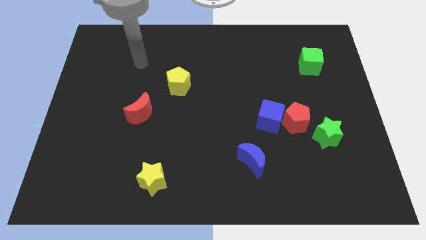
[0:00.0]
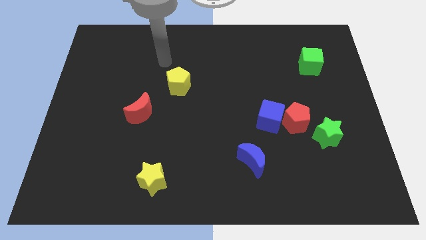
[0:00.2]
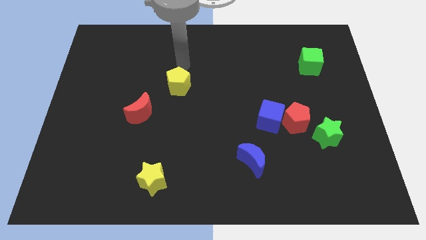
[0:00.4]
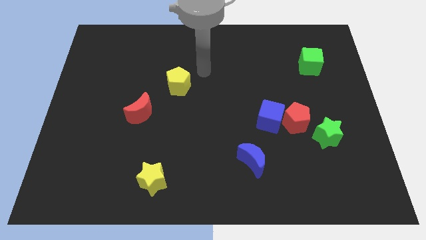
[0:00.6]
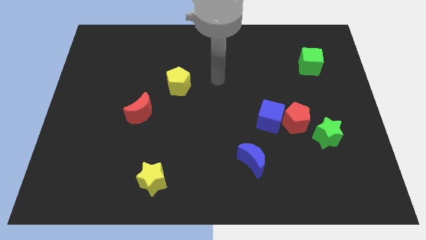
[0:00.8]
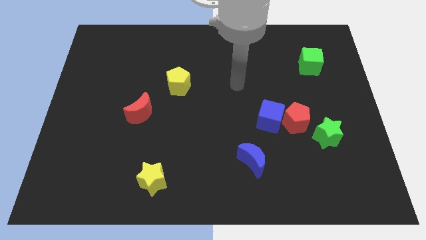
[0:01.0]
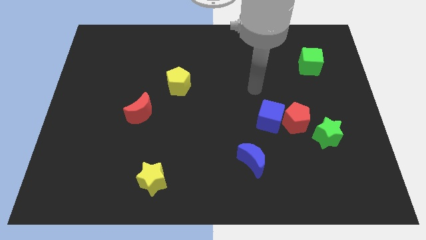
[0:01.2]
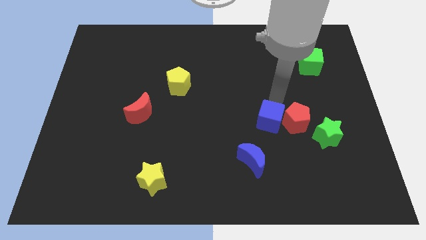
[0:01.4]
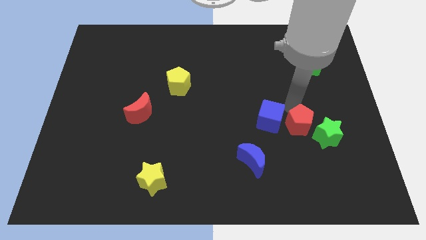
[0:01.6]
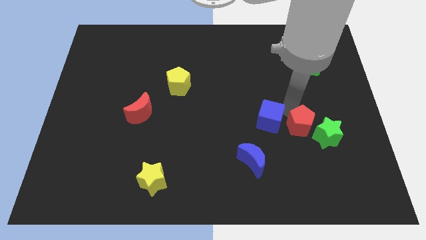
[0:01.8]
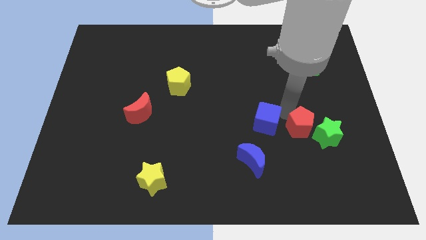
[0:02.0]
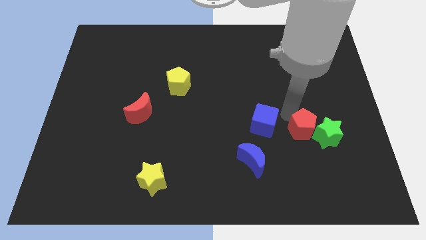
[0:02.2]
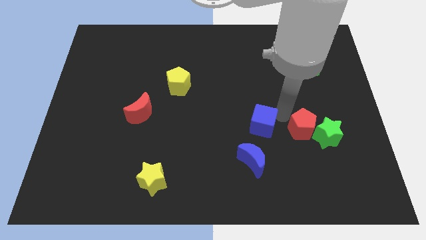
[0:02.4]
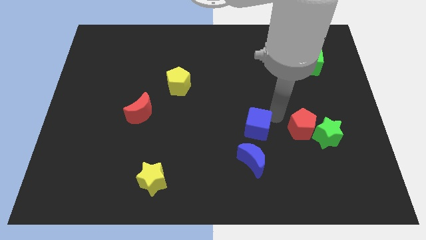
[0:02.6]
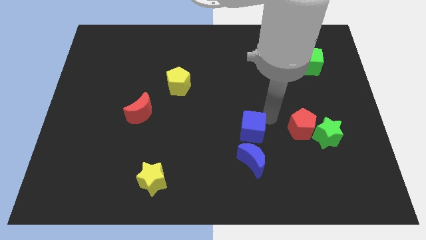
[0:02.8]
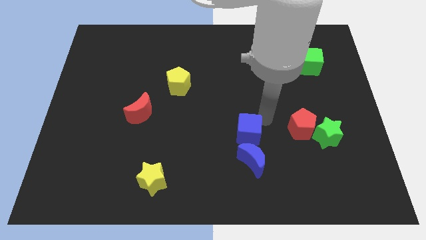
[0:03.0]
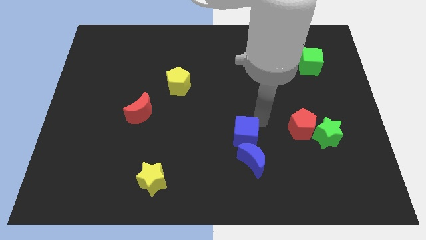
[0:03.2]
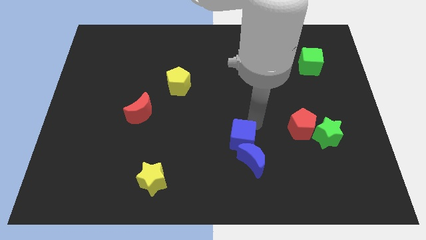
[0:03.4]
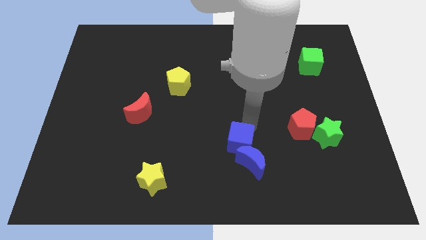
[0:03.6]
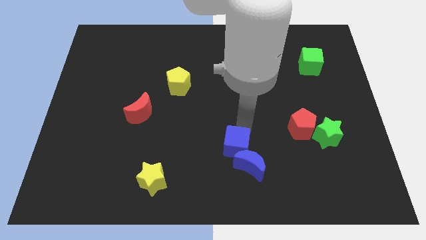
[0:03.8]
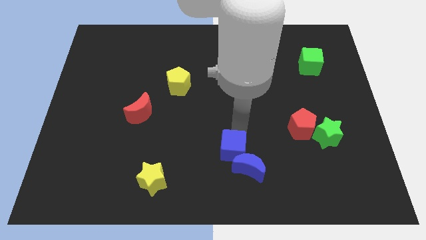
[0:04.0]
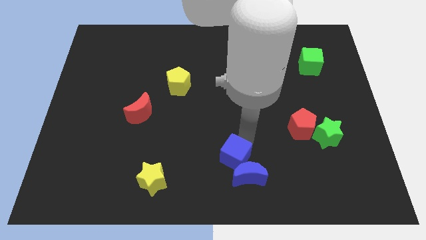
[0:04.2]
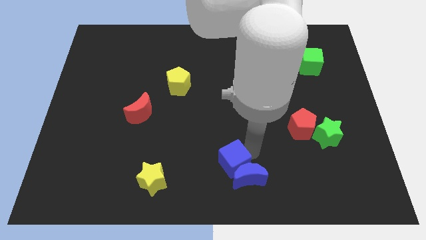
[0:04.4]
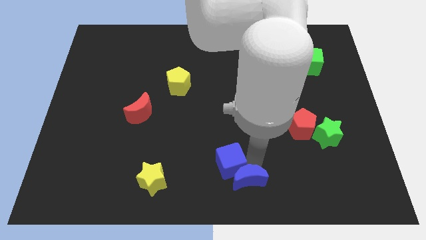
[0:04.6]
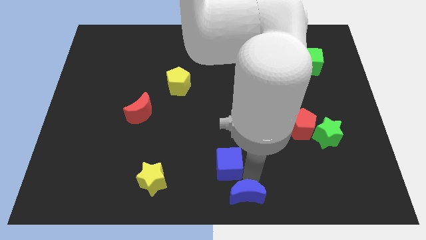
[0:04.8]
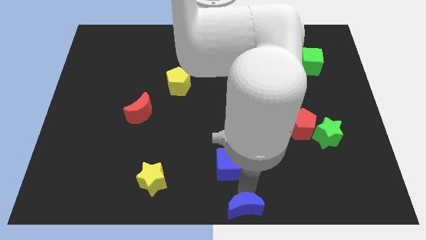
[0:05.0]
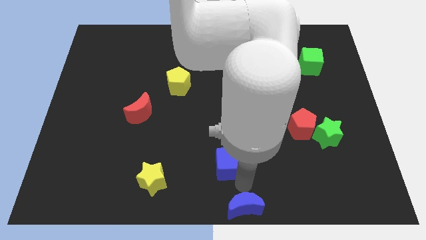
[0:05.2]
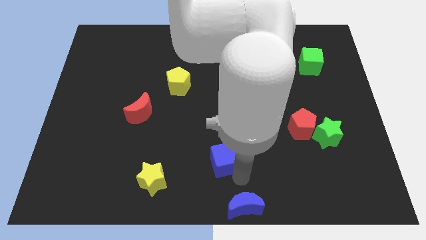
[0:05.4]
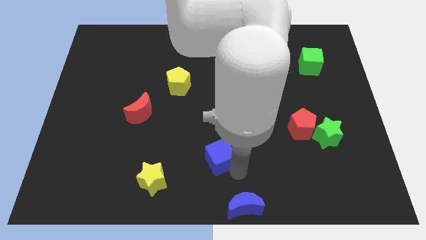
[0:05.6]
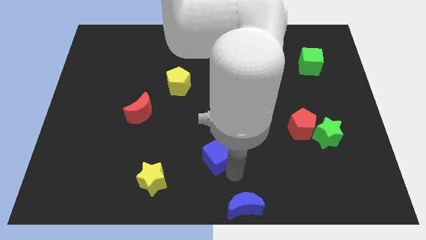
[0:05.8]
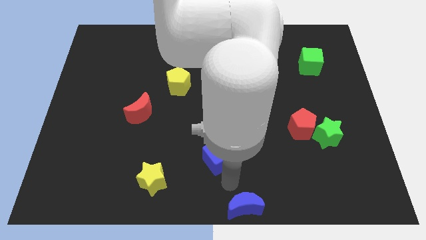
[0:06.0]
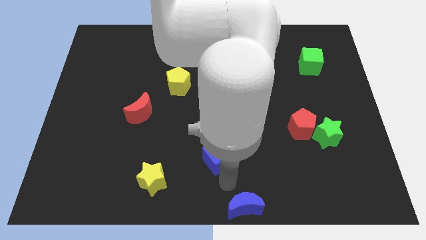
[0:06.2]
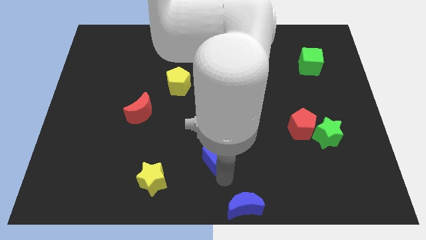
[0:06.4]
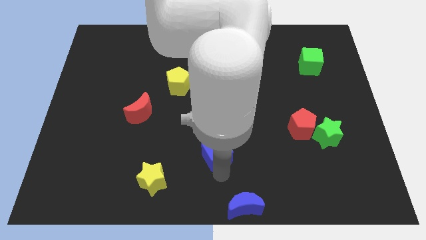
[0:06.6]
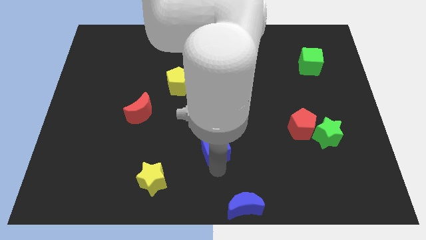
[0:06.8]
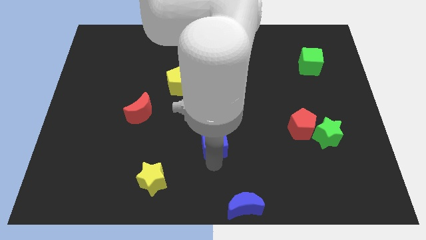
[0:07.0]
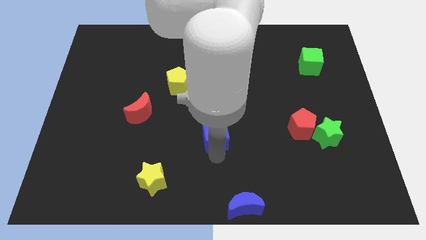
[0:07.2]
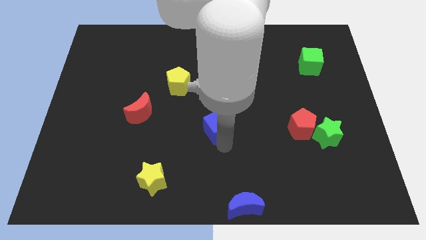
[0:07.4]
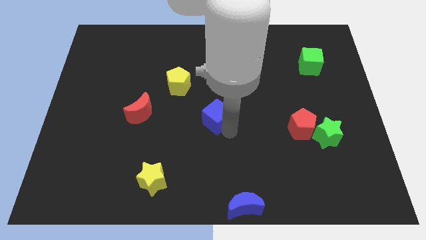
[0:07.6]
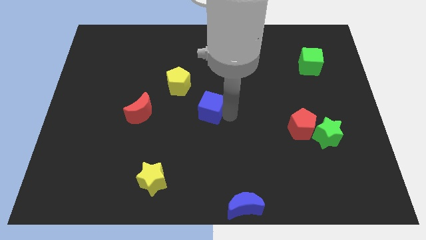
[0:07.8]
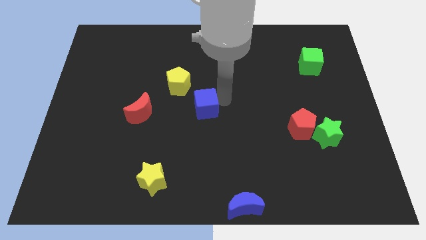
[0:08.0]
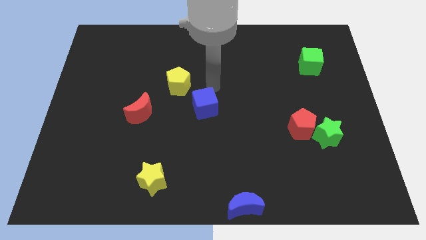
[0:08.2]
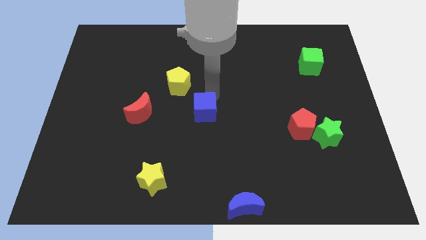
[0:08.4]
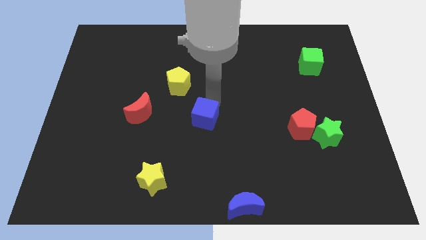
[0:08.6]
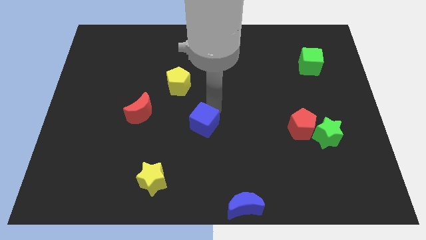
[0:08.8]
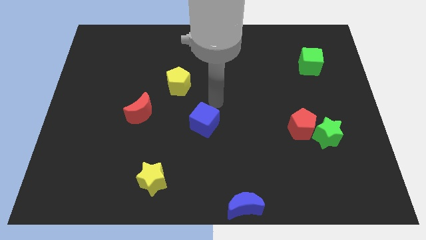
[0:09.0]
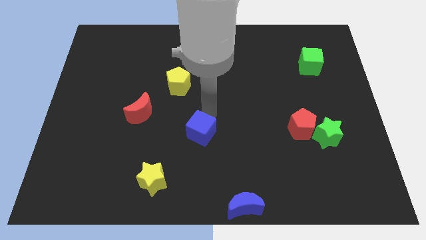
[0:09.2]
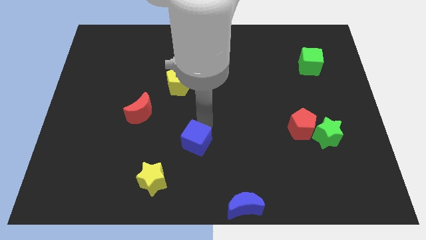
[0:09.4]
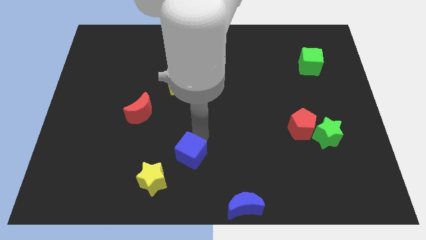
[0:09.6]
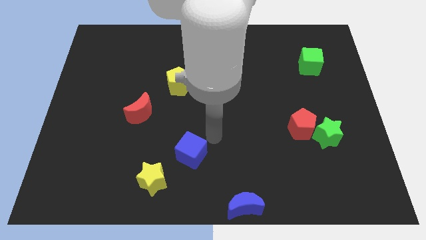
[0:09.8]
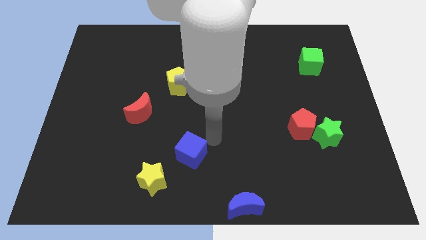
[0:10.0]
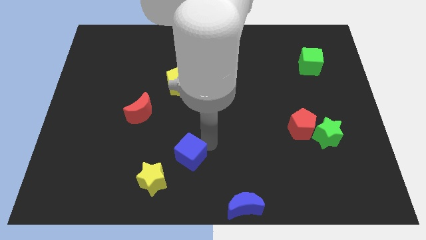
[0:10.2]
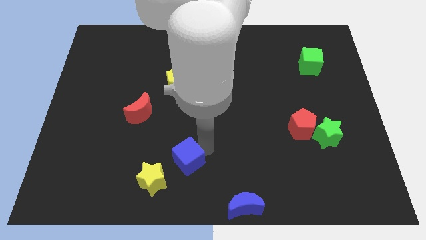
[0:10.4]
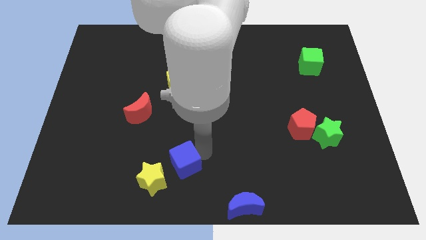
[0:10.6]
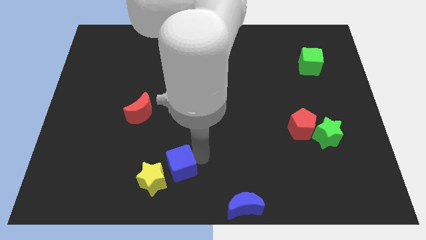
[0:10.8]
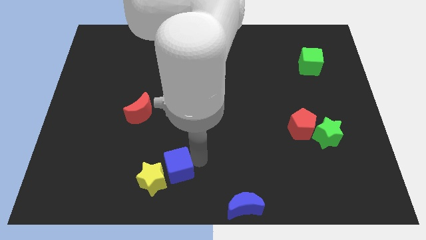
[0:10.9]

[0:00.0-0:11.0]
put the blue cube towards the yellow star

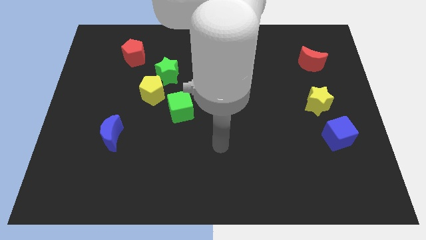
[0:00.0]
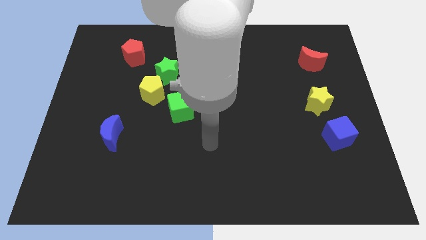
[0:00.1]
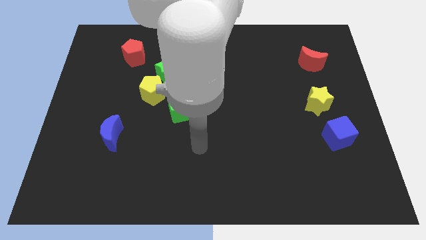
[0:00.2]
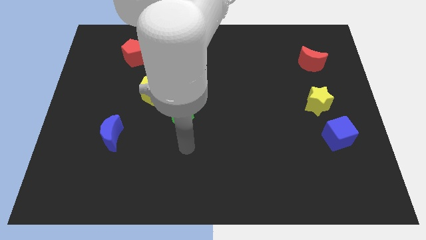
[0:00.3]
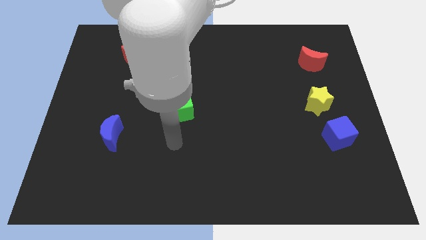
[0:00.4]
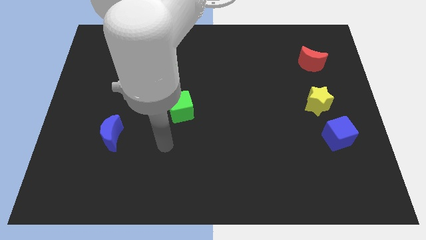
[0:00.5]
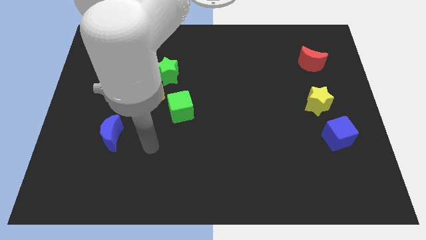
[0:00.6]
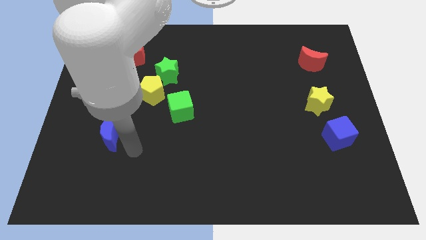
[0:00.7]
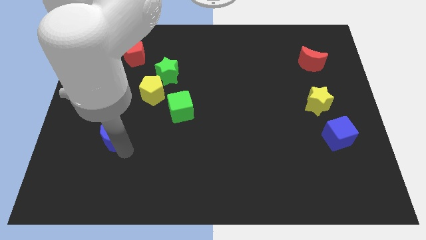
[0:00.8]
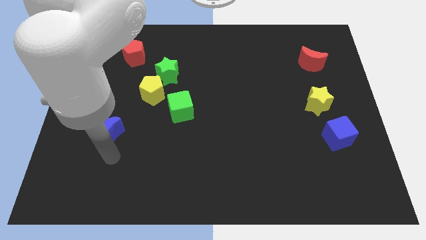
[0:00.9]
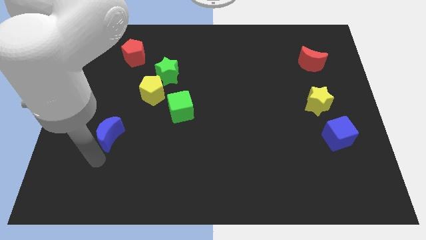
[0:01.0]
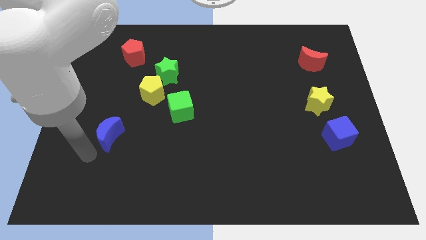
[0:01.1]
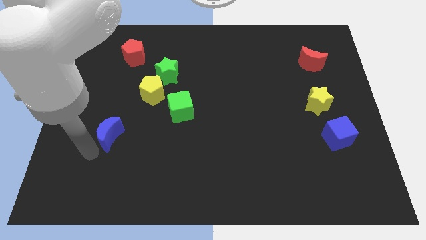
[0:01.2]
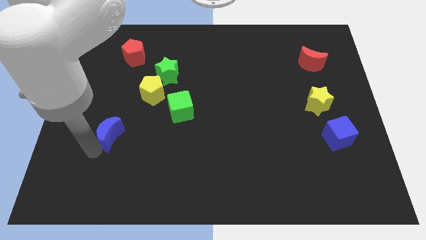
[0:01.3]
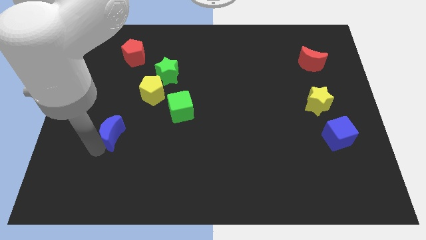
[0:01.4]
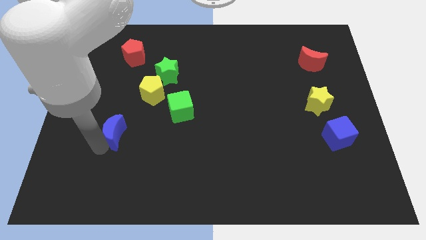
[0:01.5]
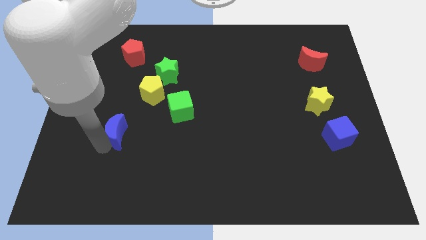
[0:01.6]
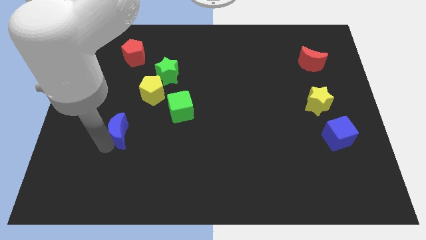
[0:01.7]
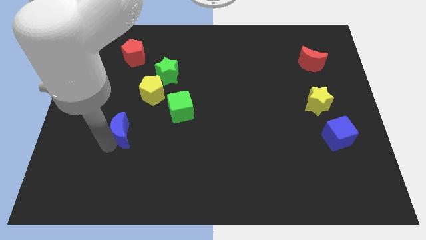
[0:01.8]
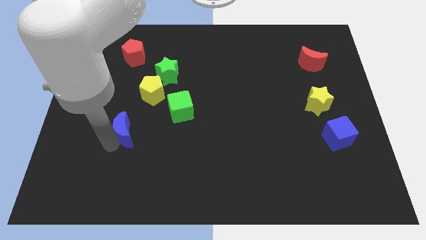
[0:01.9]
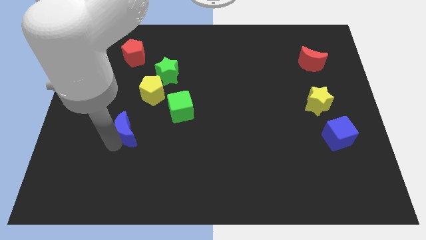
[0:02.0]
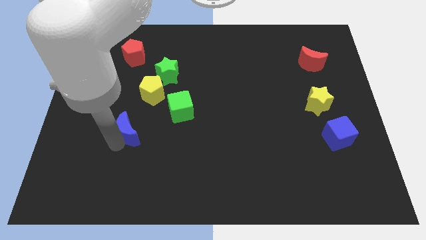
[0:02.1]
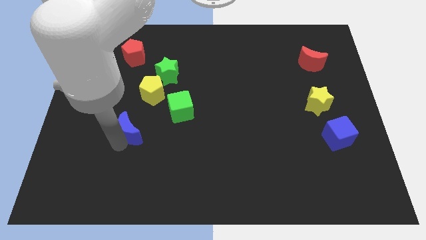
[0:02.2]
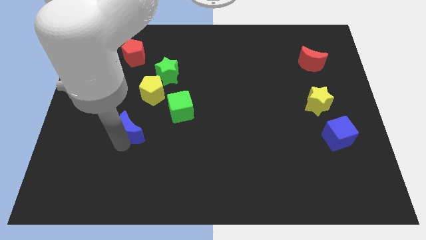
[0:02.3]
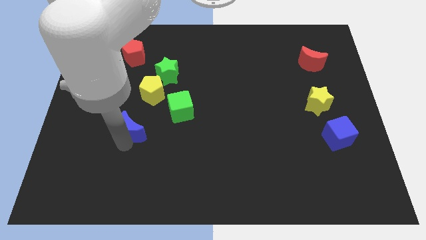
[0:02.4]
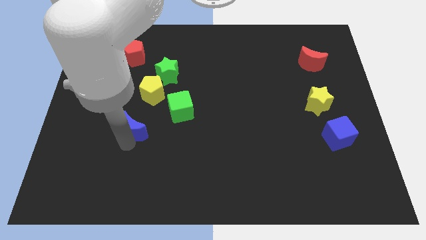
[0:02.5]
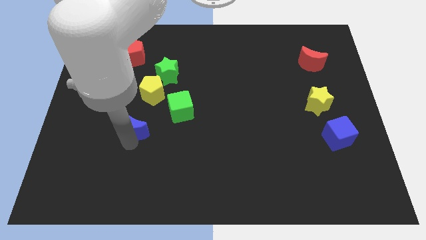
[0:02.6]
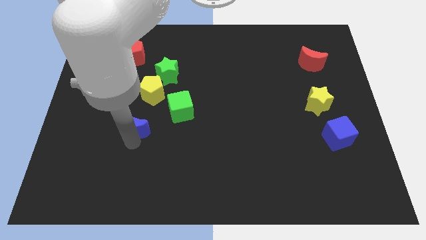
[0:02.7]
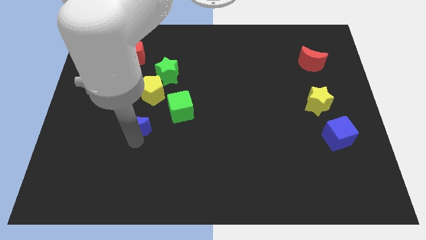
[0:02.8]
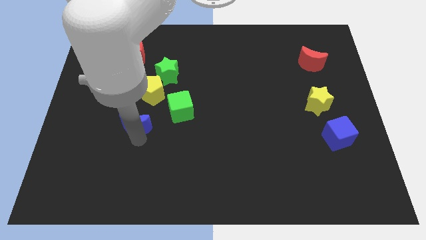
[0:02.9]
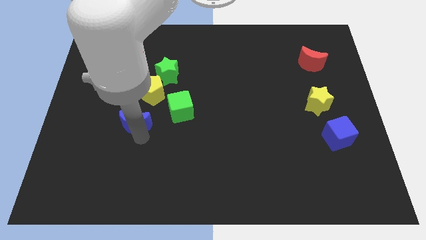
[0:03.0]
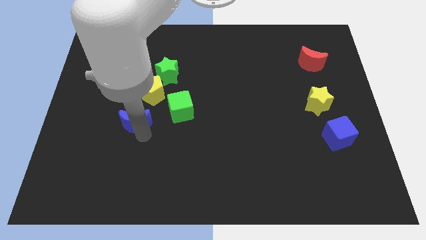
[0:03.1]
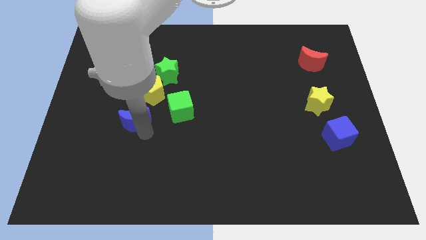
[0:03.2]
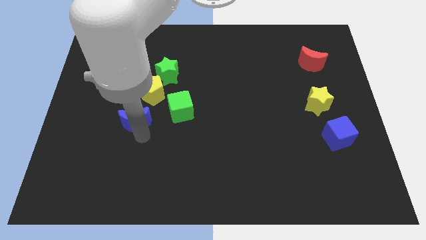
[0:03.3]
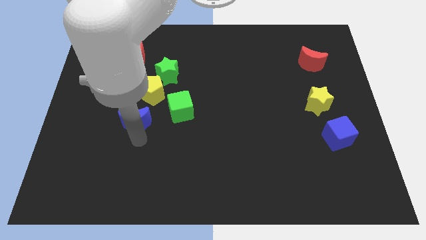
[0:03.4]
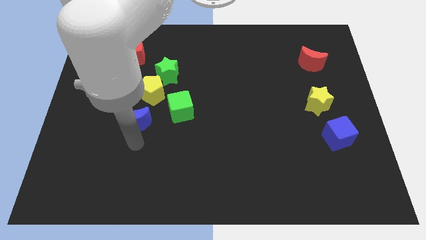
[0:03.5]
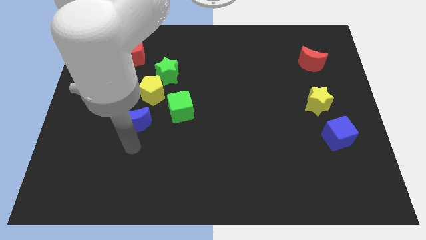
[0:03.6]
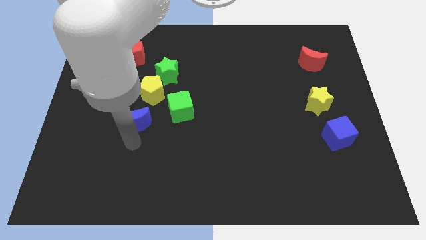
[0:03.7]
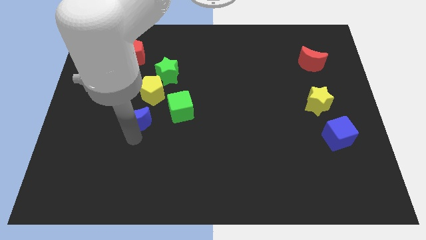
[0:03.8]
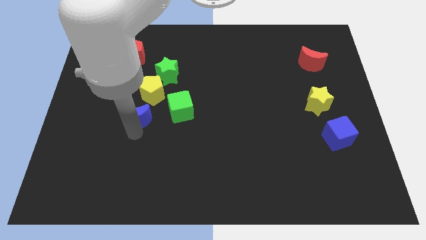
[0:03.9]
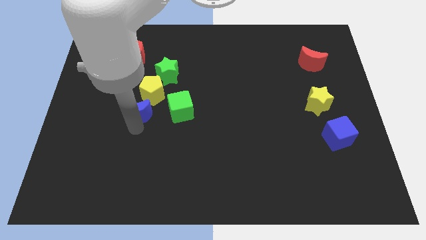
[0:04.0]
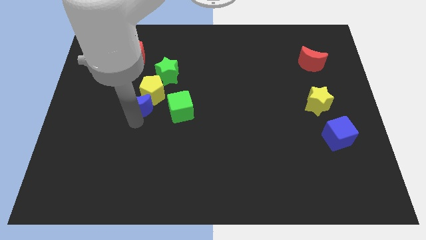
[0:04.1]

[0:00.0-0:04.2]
push the blue moon close to the yellow pentagon
